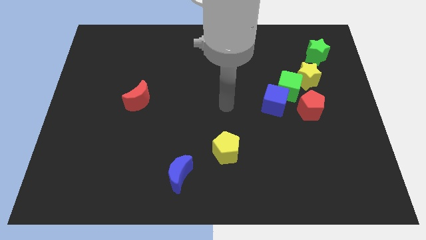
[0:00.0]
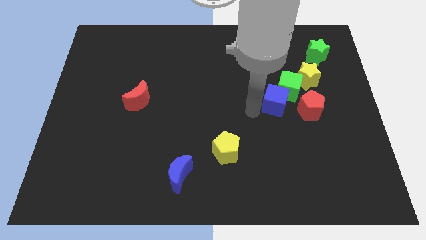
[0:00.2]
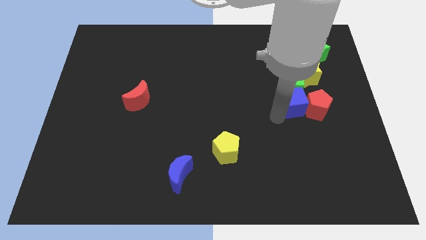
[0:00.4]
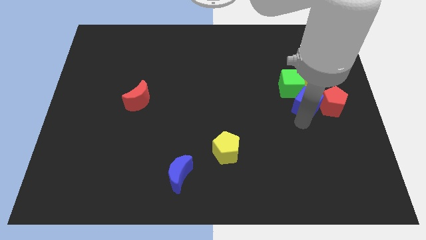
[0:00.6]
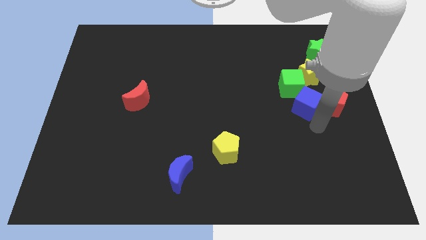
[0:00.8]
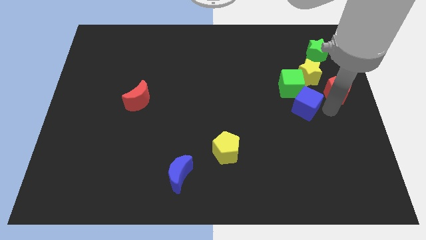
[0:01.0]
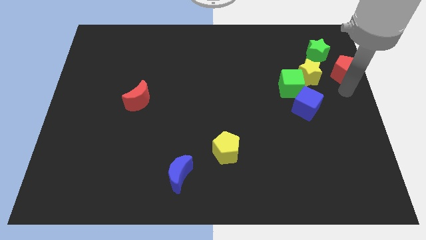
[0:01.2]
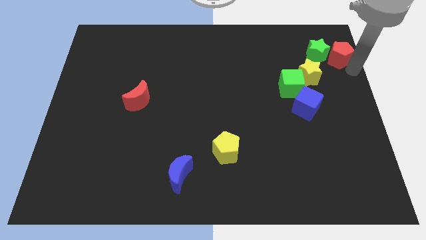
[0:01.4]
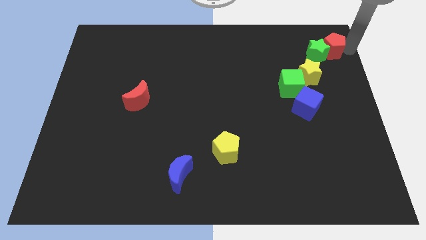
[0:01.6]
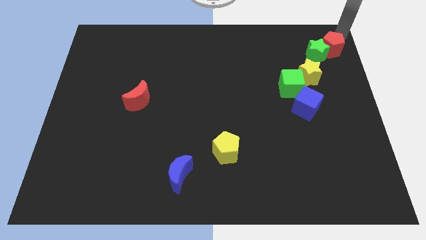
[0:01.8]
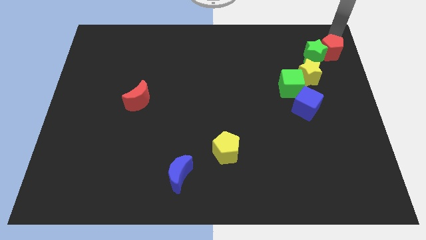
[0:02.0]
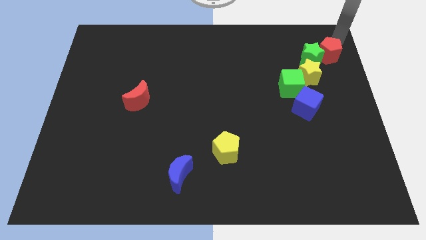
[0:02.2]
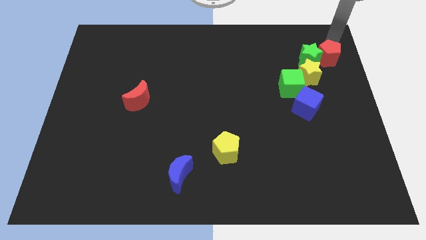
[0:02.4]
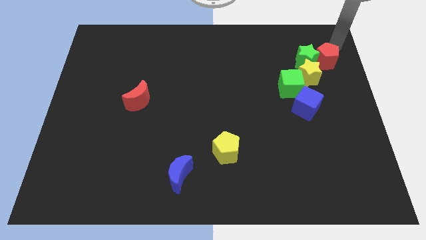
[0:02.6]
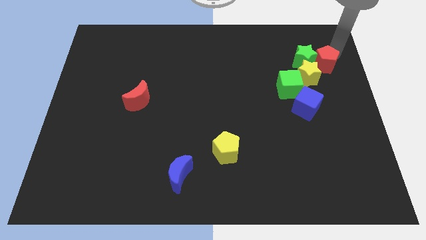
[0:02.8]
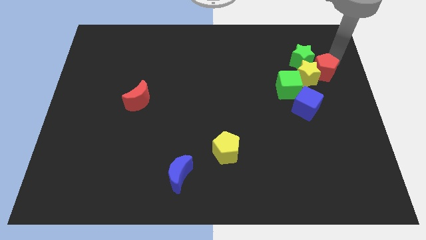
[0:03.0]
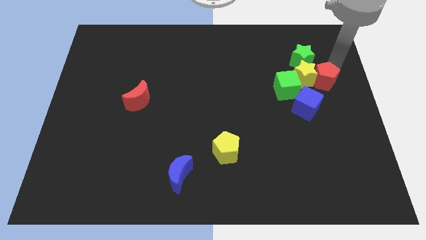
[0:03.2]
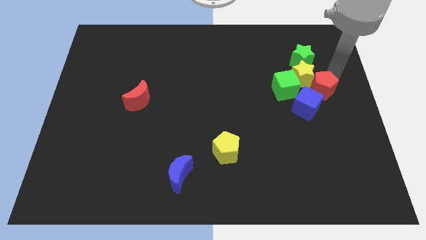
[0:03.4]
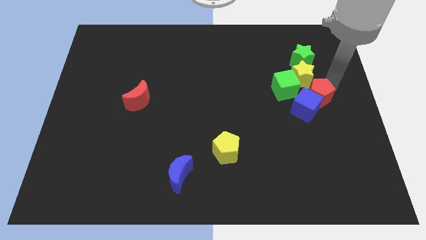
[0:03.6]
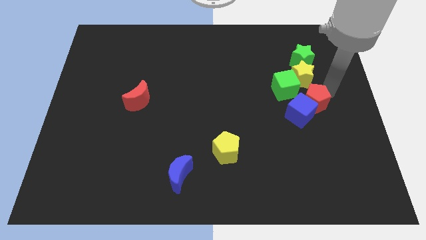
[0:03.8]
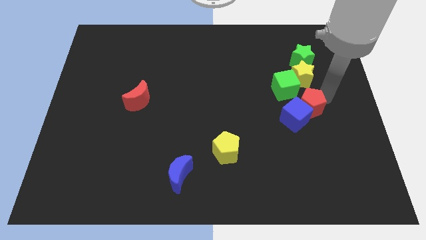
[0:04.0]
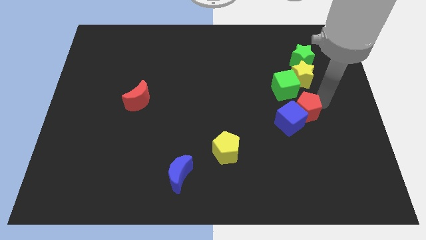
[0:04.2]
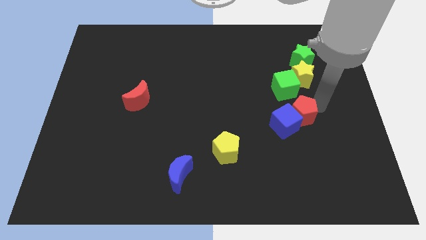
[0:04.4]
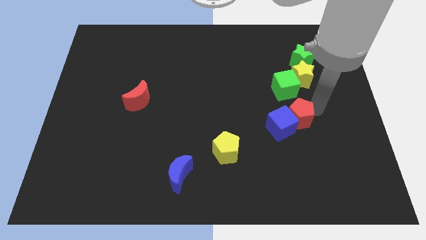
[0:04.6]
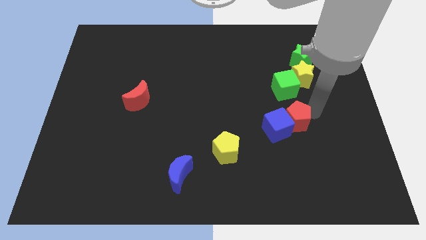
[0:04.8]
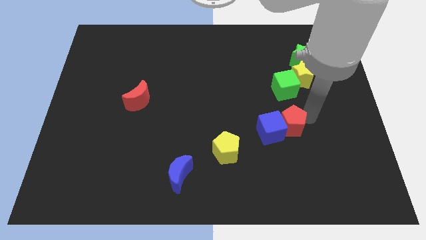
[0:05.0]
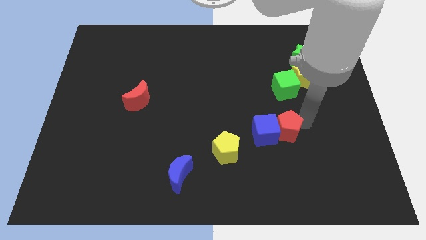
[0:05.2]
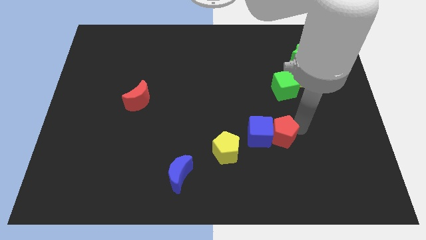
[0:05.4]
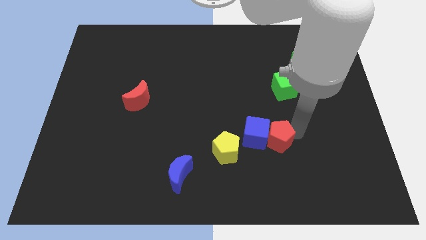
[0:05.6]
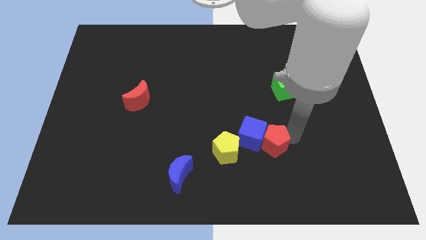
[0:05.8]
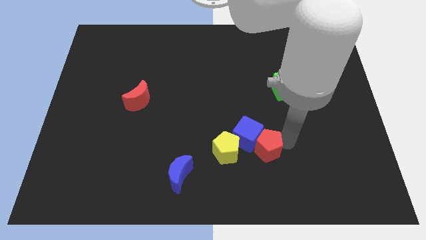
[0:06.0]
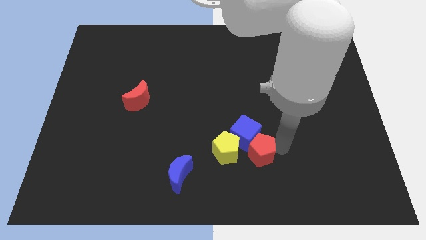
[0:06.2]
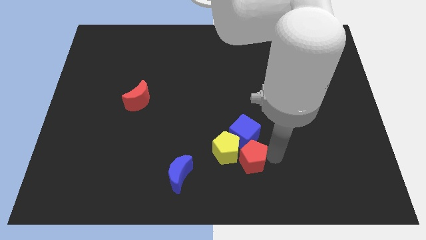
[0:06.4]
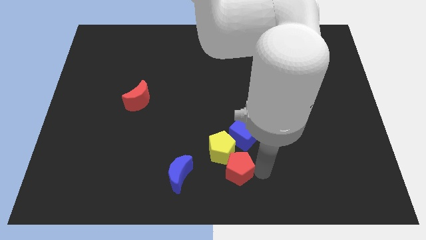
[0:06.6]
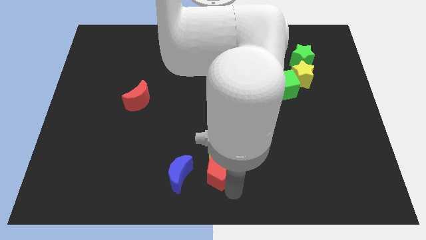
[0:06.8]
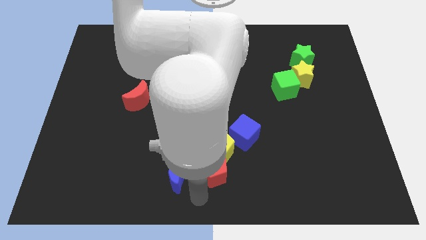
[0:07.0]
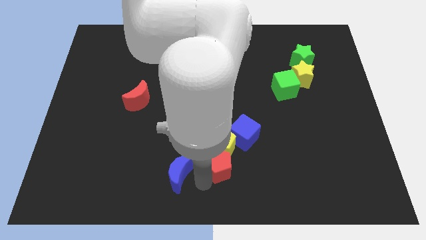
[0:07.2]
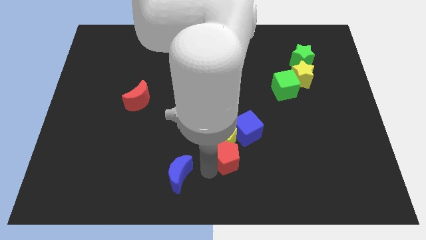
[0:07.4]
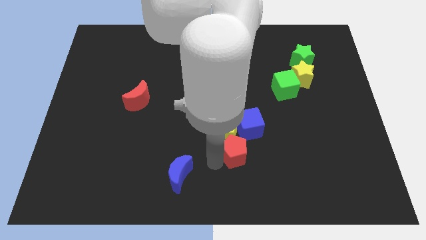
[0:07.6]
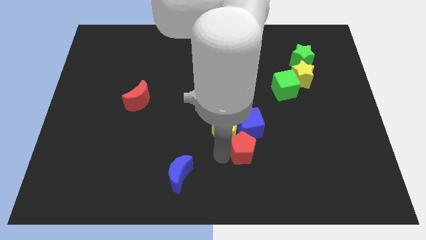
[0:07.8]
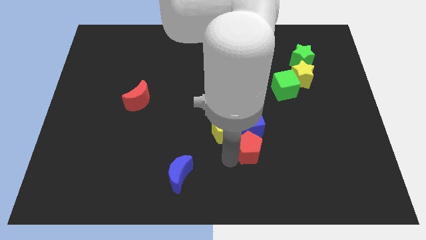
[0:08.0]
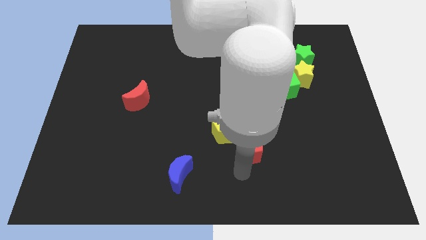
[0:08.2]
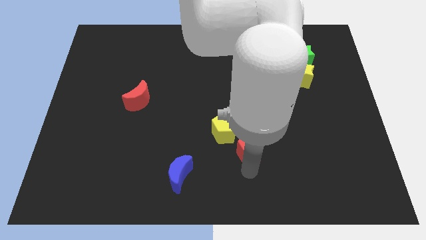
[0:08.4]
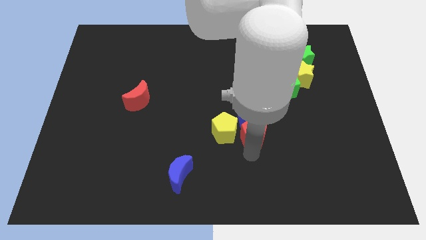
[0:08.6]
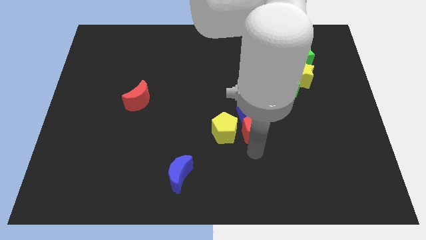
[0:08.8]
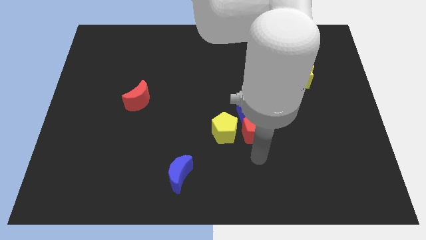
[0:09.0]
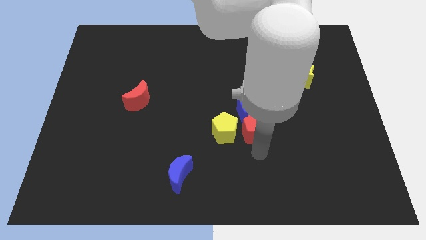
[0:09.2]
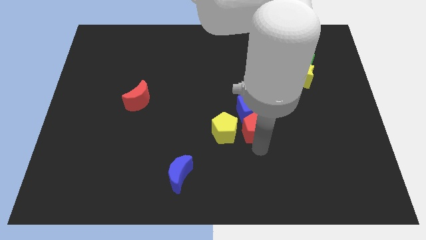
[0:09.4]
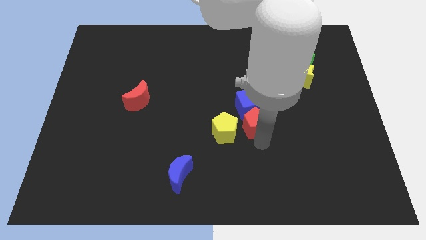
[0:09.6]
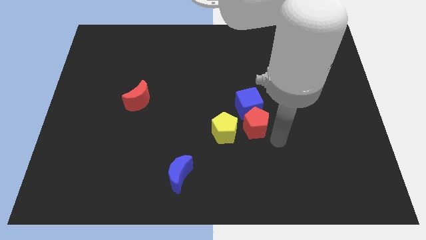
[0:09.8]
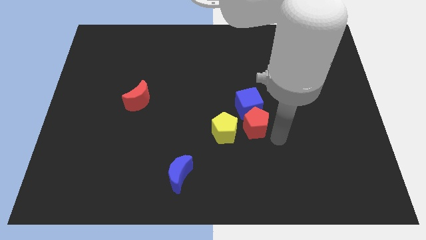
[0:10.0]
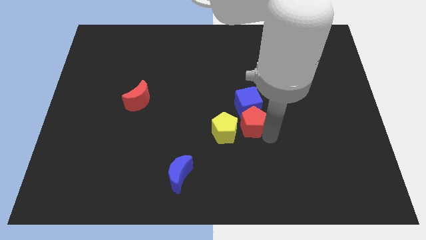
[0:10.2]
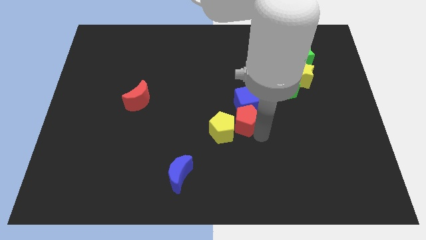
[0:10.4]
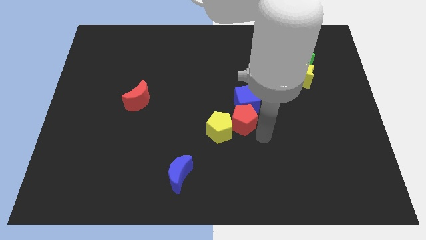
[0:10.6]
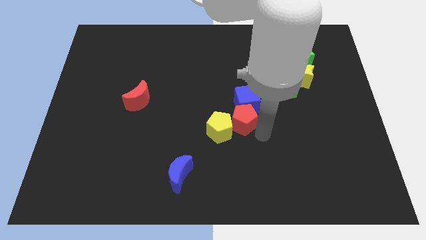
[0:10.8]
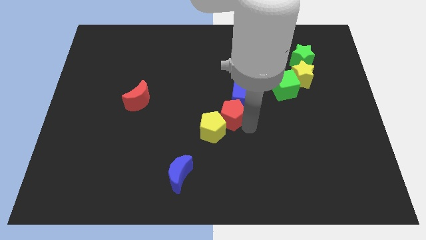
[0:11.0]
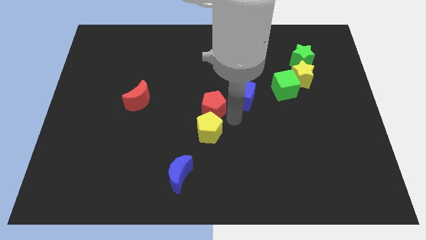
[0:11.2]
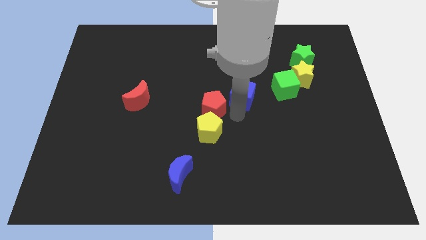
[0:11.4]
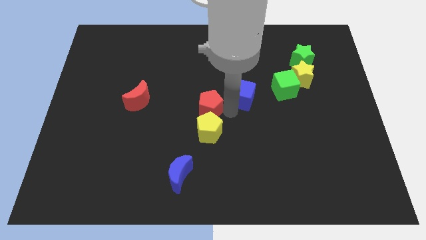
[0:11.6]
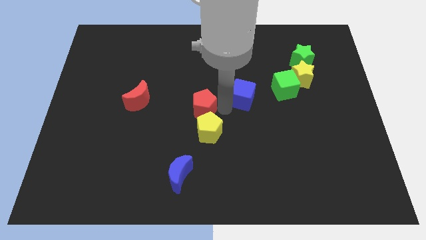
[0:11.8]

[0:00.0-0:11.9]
push the red pentagon just right of the red moon
